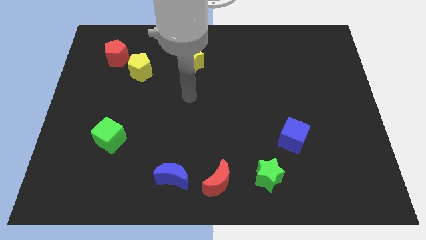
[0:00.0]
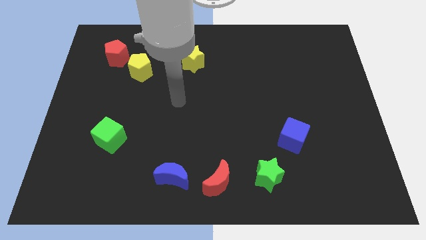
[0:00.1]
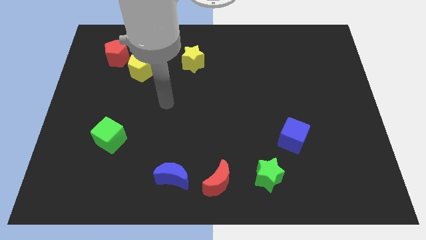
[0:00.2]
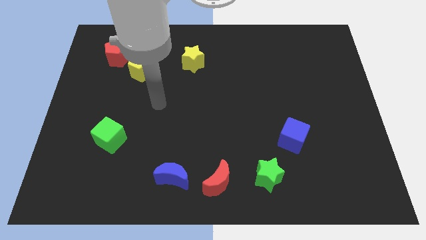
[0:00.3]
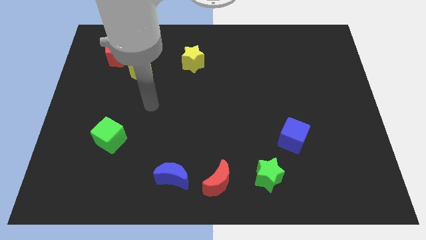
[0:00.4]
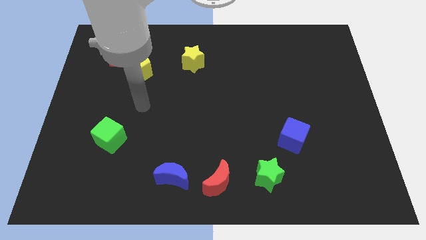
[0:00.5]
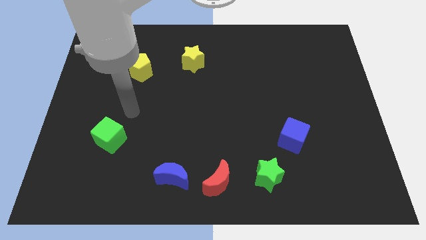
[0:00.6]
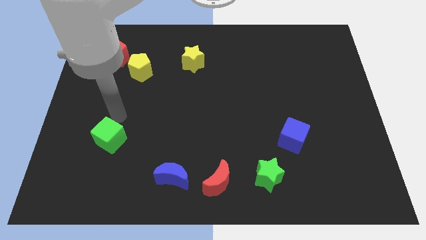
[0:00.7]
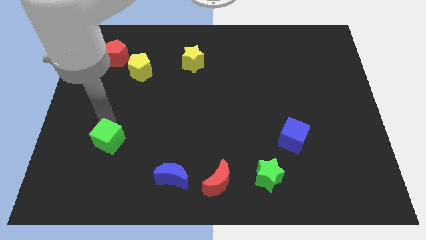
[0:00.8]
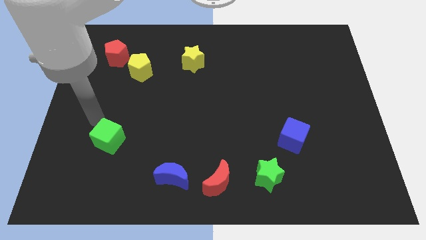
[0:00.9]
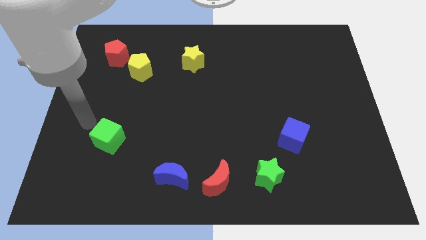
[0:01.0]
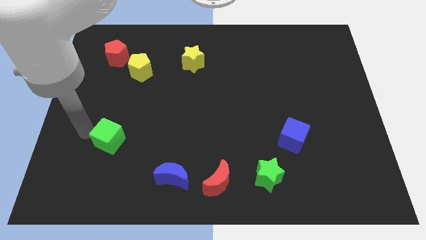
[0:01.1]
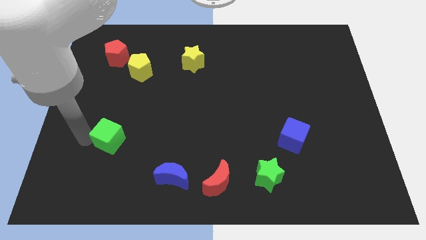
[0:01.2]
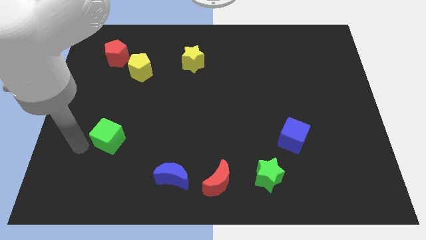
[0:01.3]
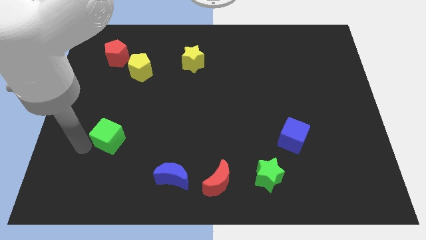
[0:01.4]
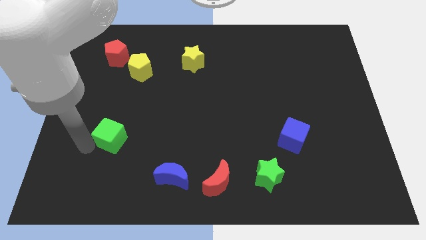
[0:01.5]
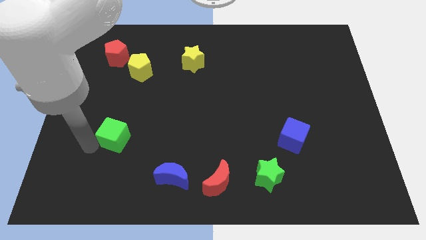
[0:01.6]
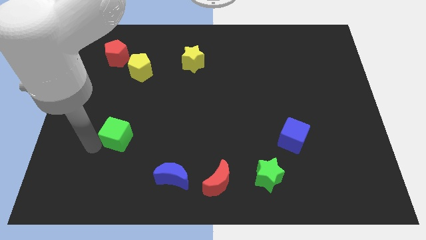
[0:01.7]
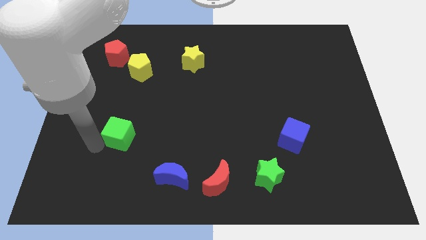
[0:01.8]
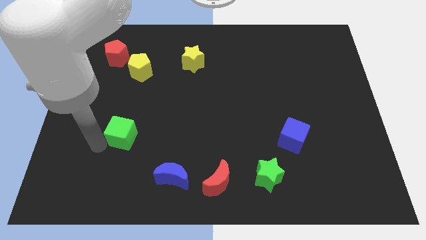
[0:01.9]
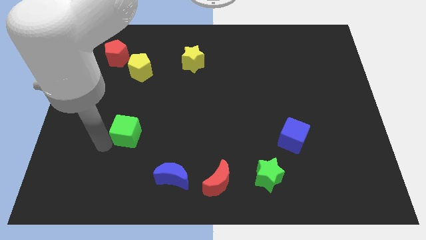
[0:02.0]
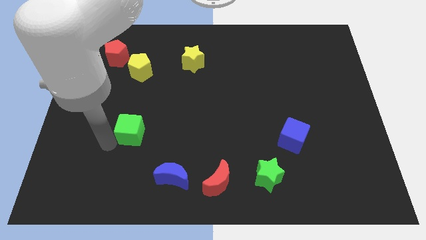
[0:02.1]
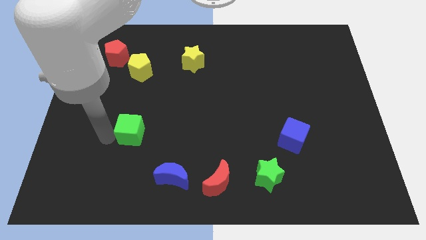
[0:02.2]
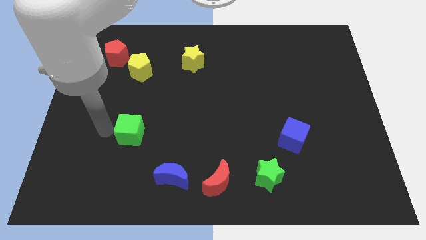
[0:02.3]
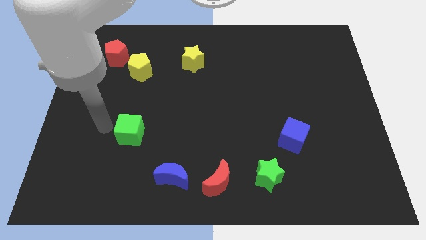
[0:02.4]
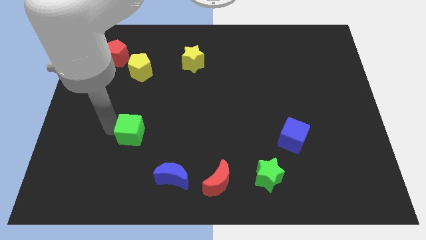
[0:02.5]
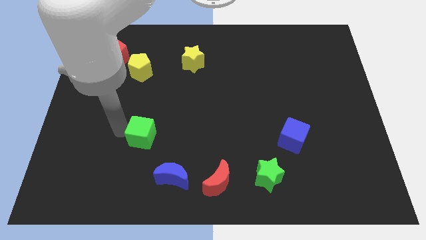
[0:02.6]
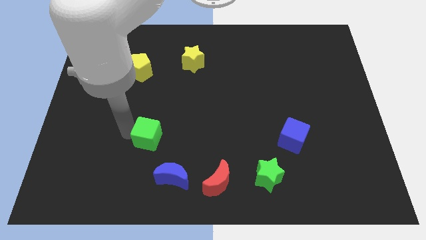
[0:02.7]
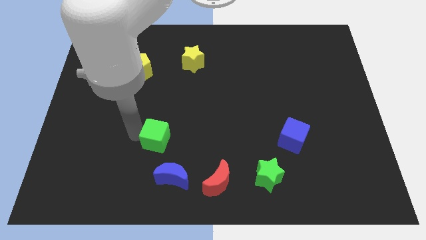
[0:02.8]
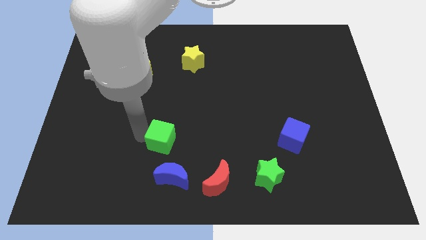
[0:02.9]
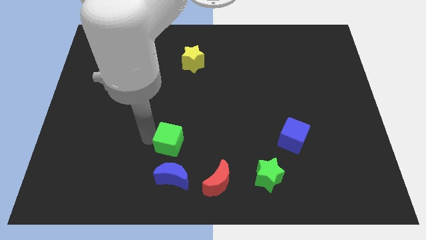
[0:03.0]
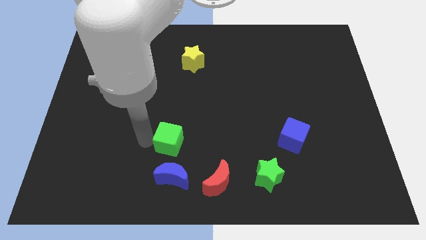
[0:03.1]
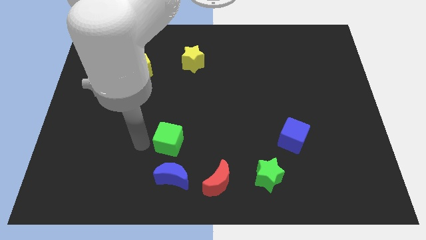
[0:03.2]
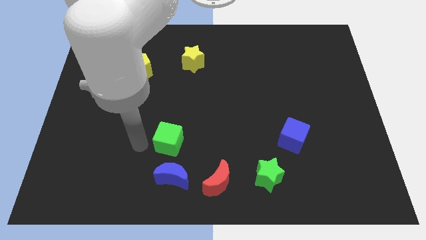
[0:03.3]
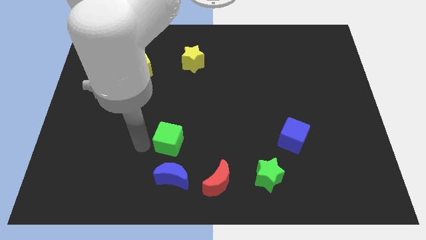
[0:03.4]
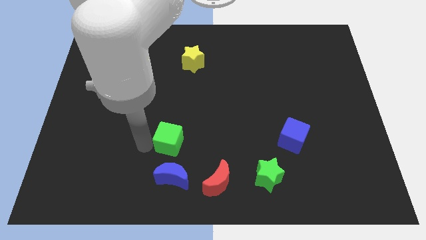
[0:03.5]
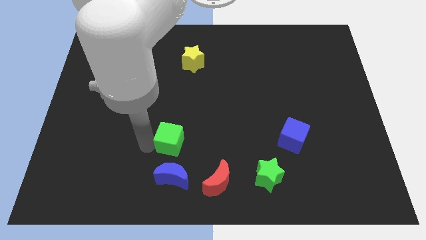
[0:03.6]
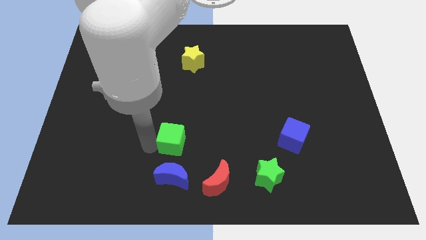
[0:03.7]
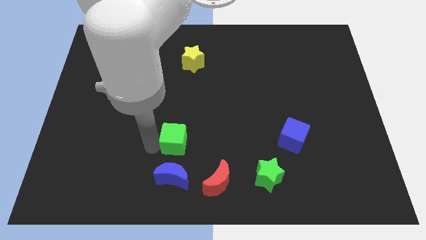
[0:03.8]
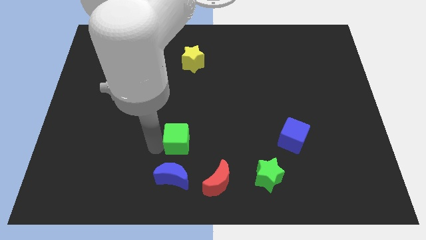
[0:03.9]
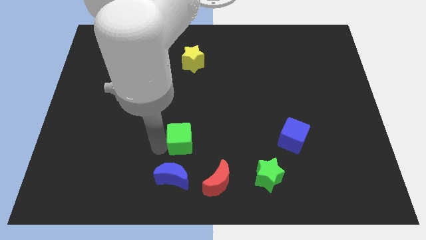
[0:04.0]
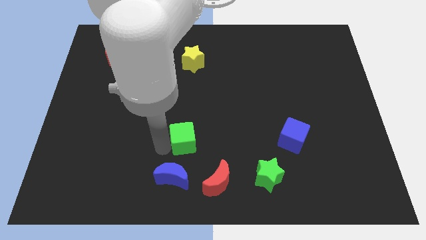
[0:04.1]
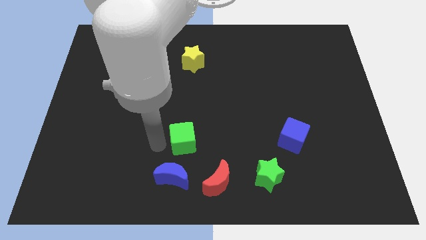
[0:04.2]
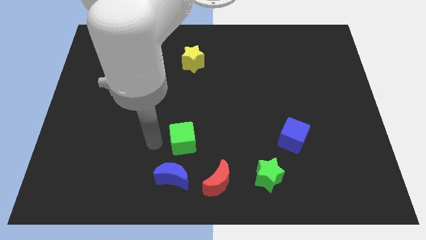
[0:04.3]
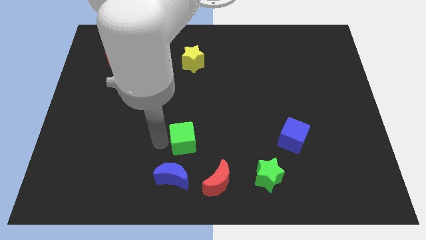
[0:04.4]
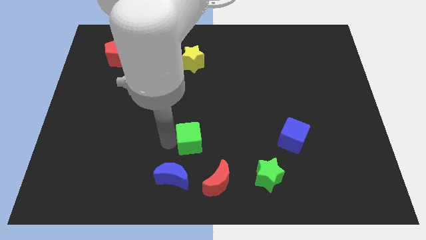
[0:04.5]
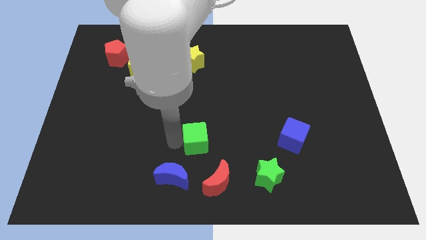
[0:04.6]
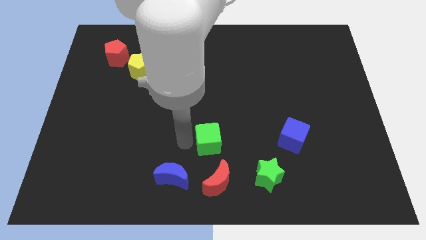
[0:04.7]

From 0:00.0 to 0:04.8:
push the green cube to the right

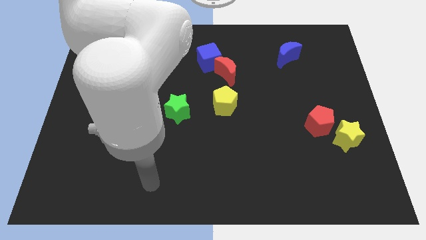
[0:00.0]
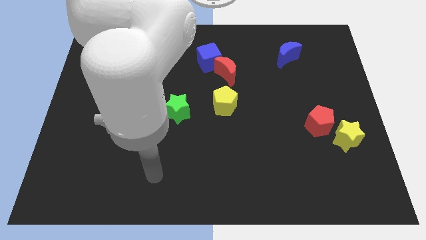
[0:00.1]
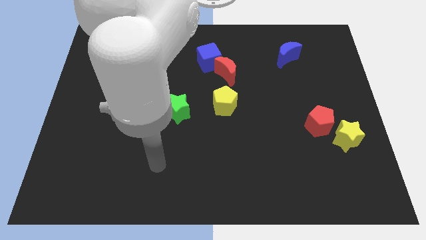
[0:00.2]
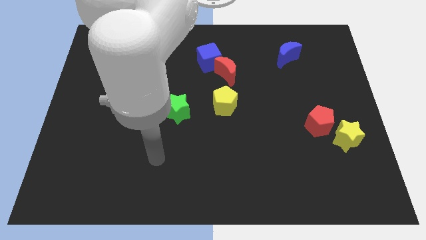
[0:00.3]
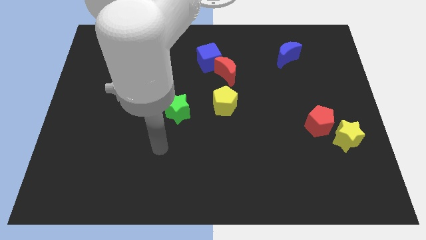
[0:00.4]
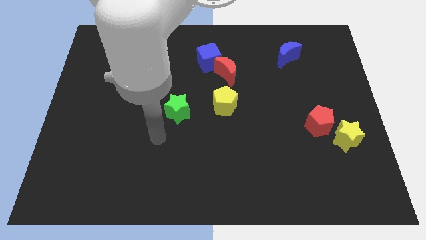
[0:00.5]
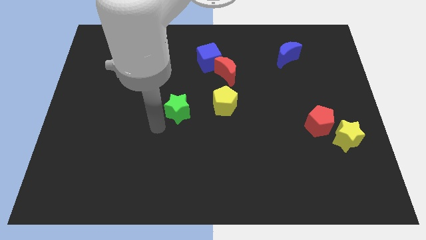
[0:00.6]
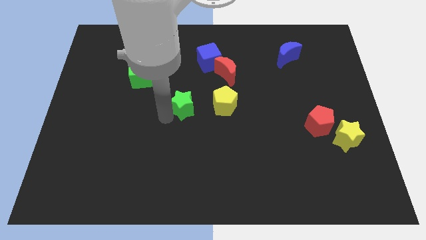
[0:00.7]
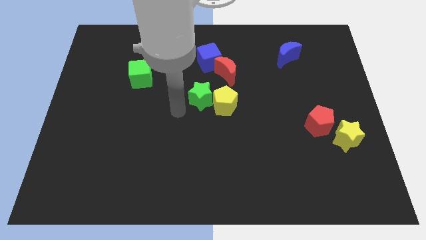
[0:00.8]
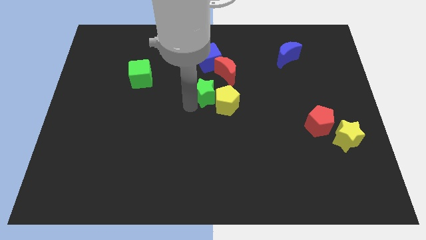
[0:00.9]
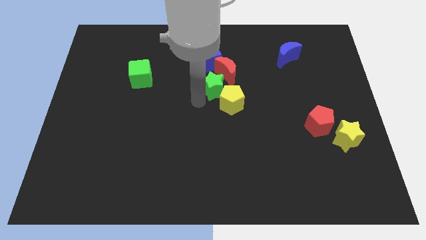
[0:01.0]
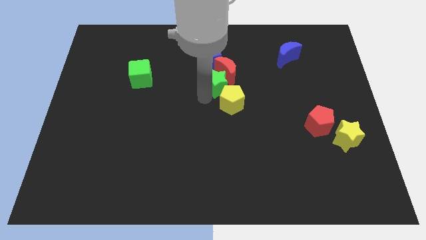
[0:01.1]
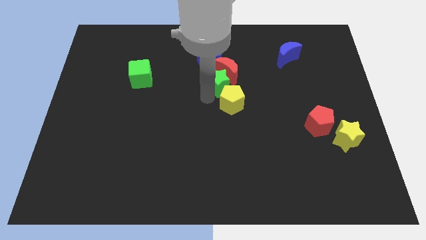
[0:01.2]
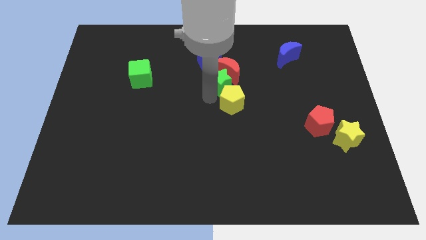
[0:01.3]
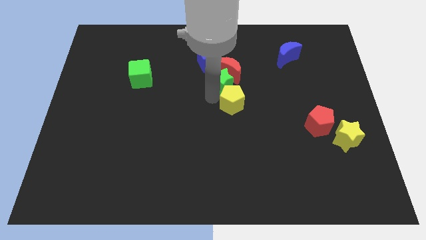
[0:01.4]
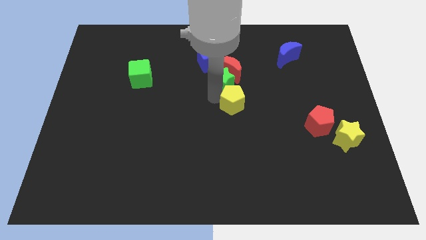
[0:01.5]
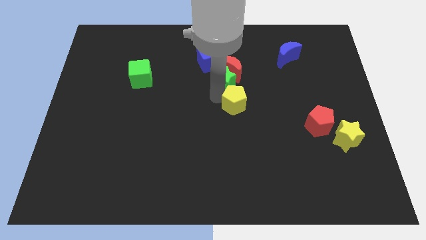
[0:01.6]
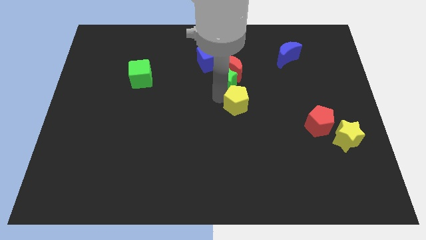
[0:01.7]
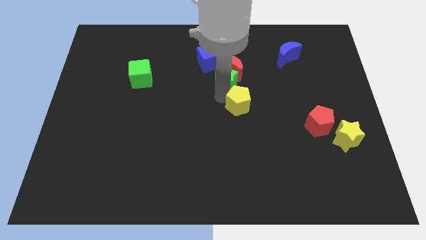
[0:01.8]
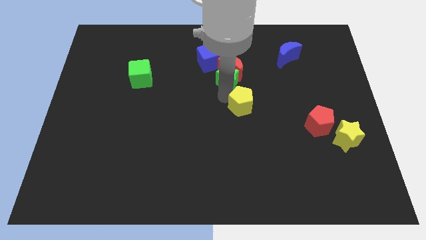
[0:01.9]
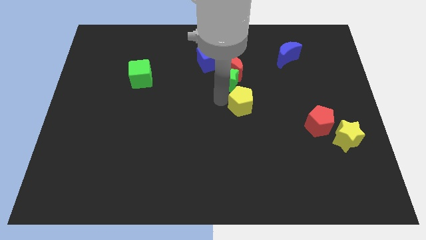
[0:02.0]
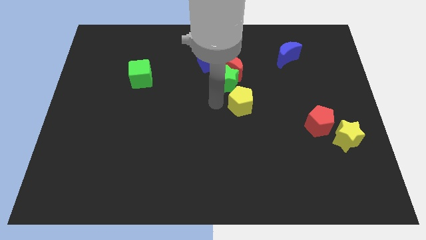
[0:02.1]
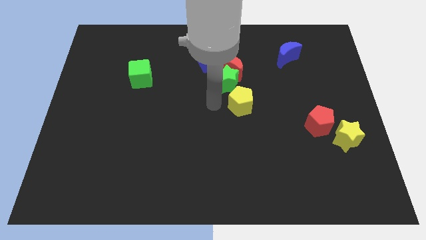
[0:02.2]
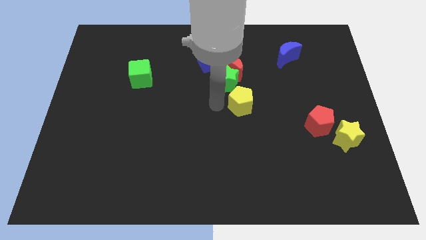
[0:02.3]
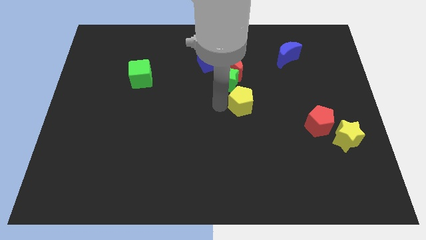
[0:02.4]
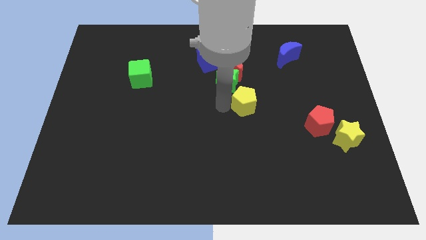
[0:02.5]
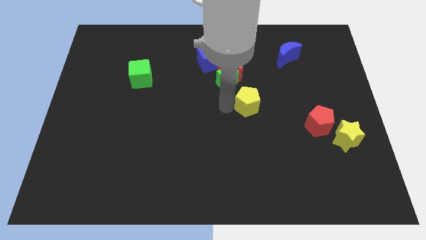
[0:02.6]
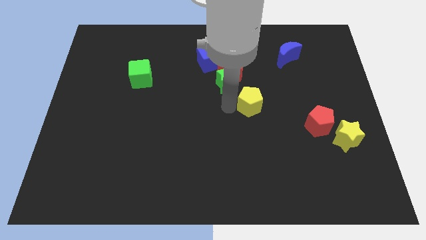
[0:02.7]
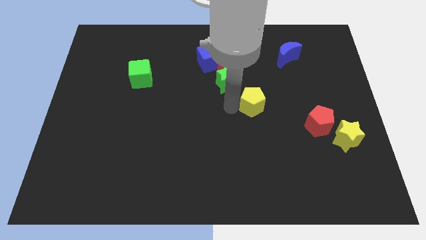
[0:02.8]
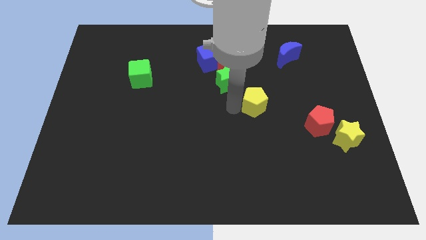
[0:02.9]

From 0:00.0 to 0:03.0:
slide the yellow pentagon a bit to the right

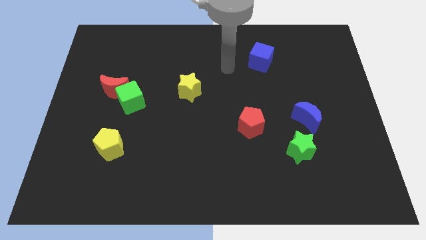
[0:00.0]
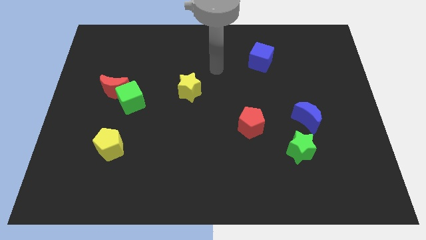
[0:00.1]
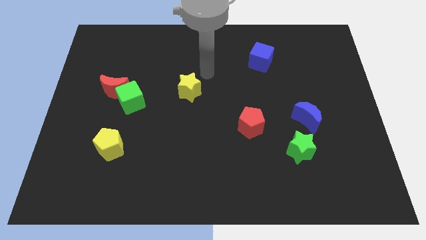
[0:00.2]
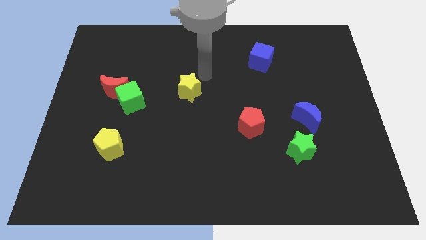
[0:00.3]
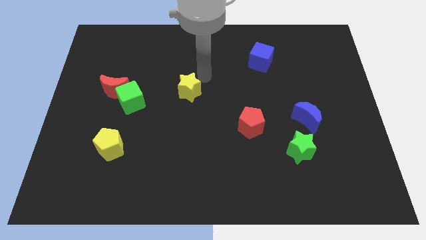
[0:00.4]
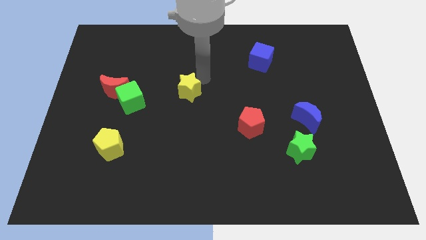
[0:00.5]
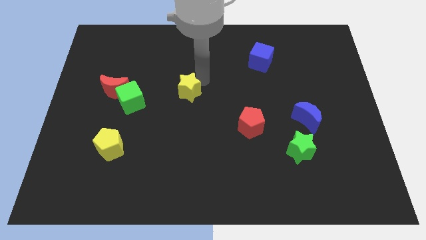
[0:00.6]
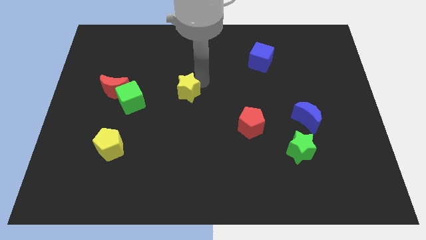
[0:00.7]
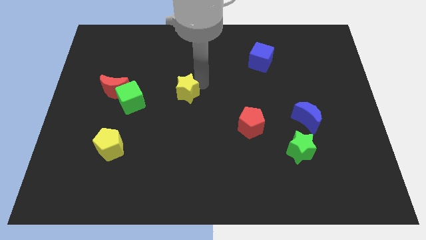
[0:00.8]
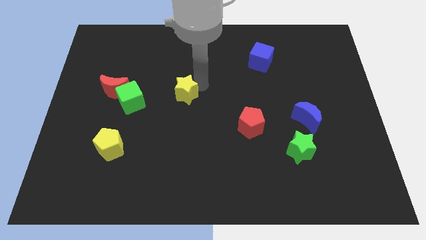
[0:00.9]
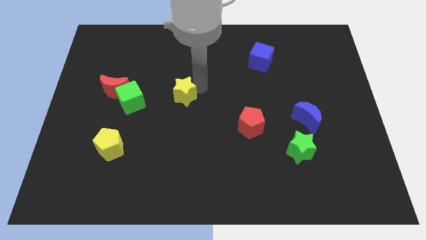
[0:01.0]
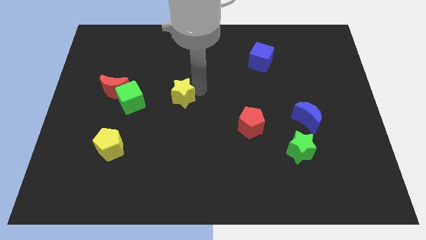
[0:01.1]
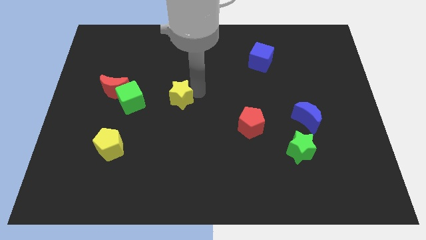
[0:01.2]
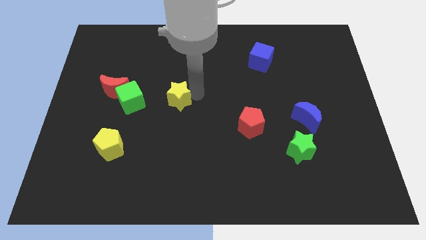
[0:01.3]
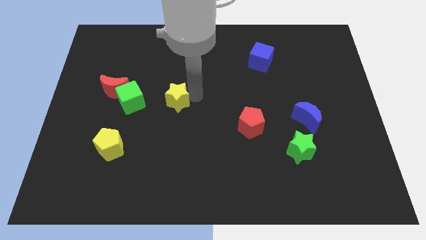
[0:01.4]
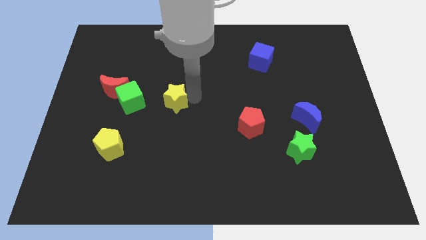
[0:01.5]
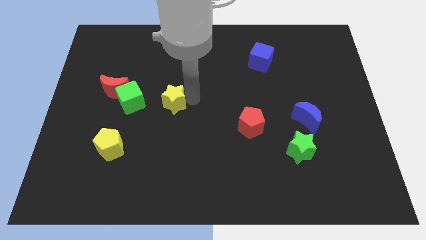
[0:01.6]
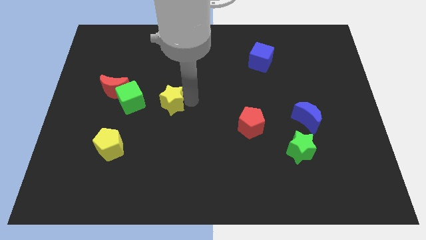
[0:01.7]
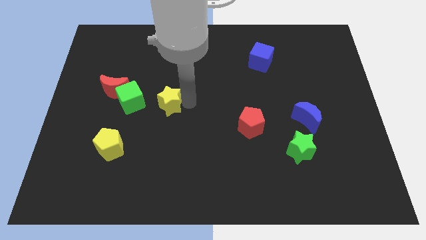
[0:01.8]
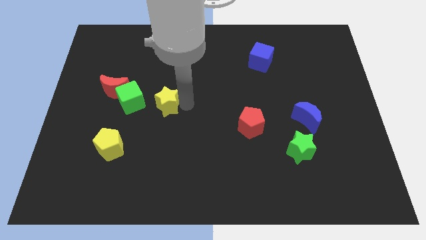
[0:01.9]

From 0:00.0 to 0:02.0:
slightly slide the yellow star downwards and left
